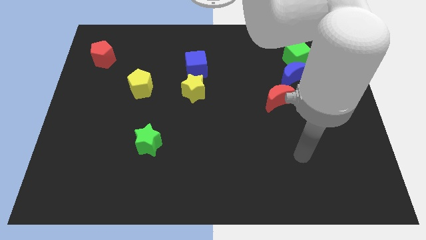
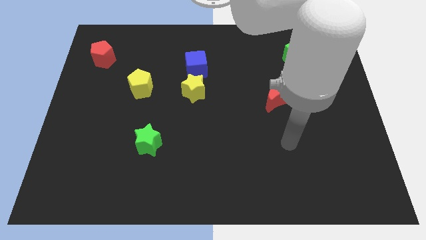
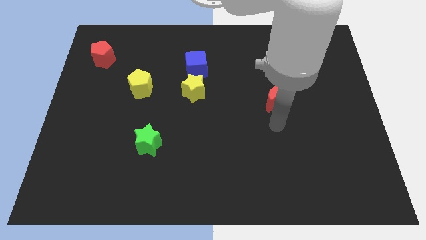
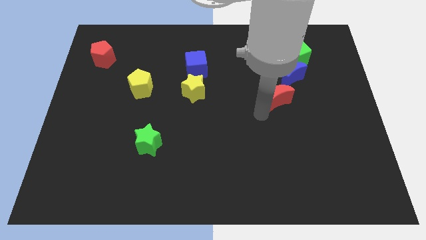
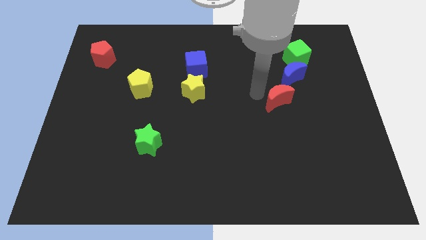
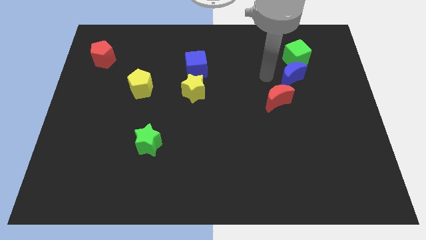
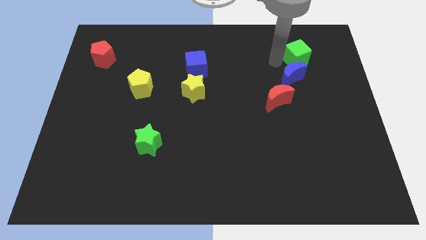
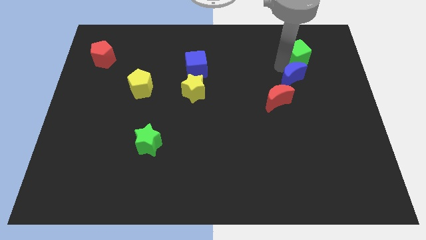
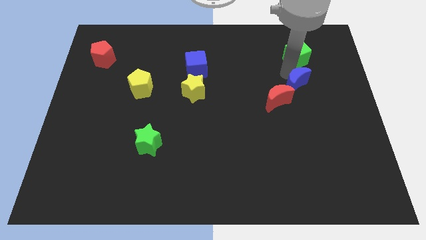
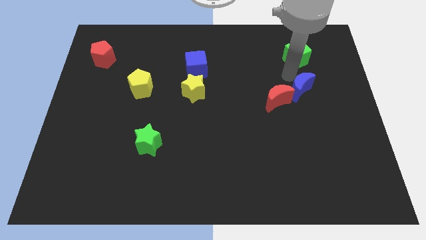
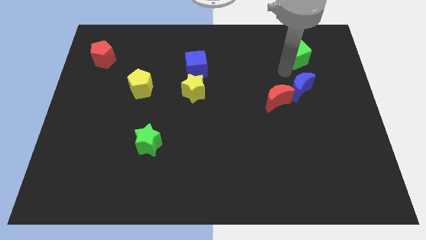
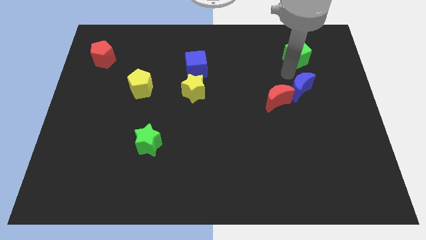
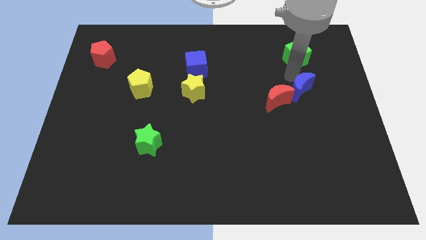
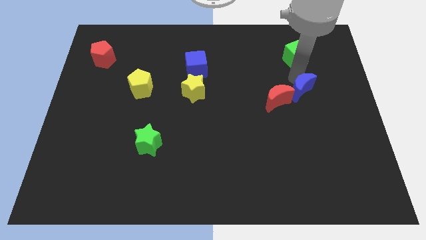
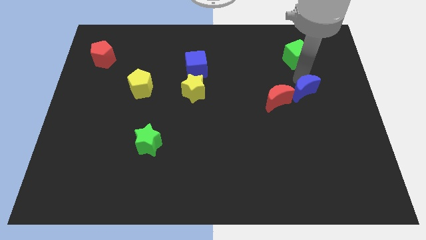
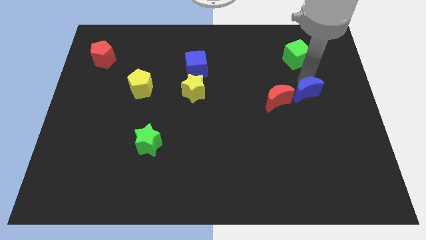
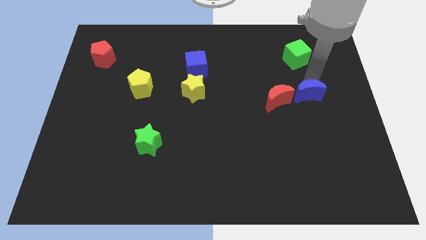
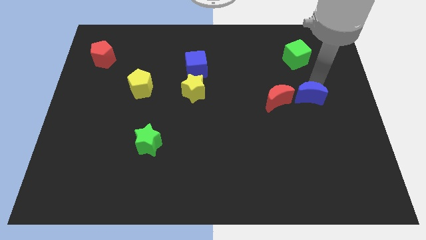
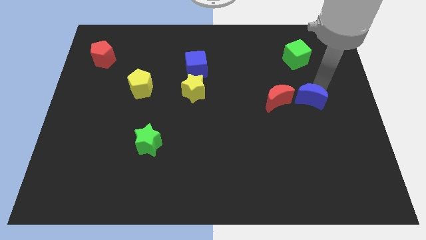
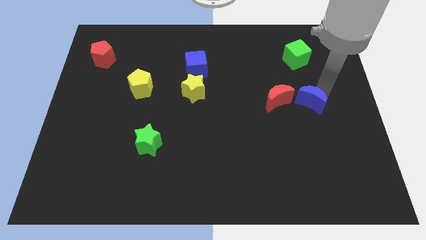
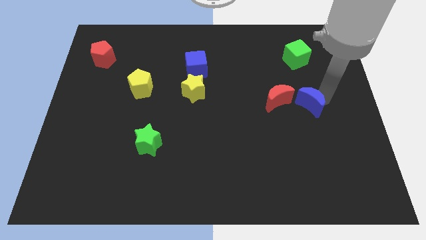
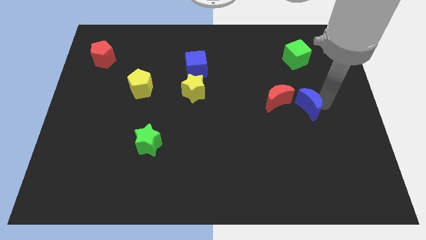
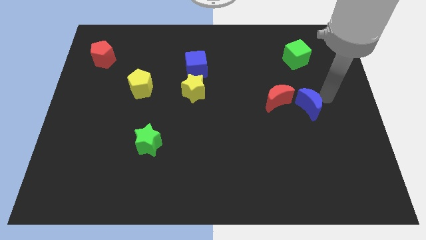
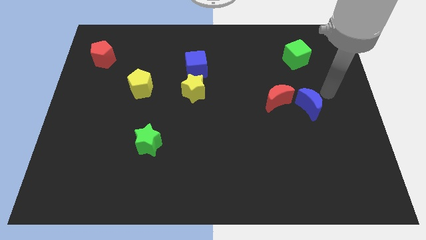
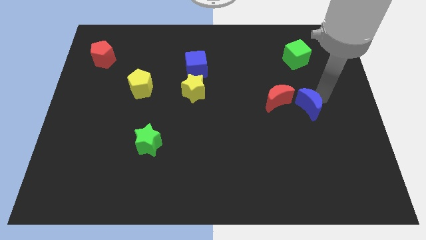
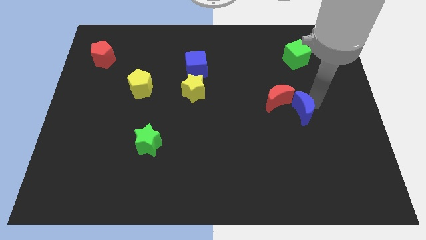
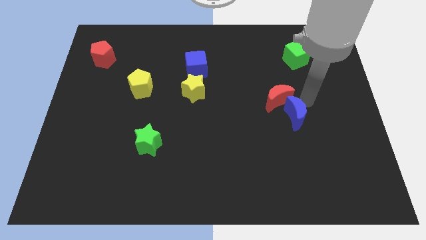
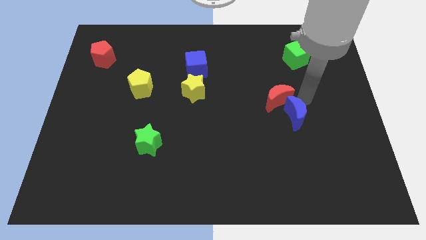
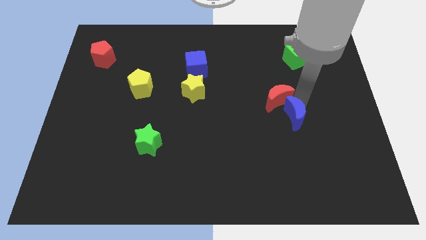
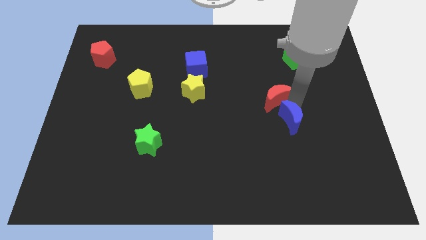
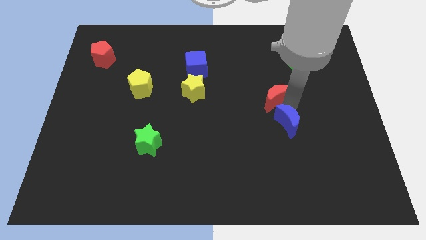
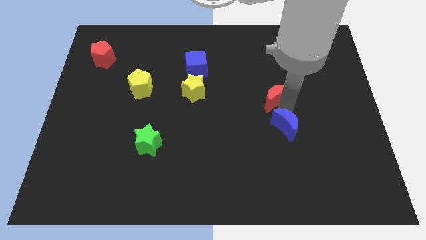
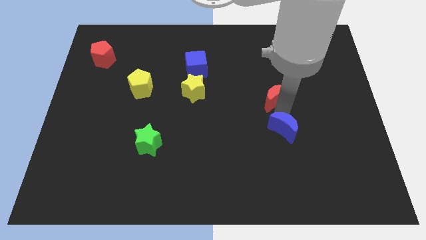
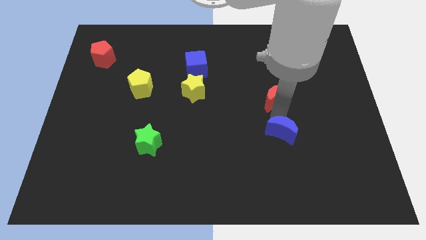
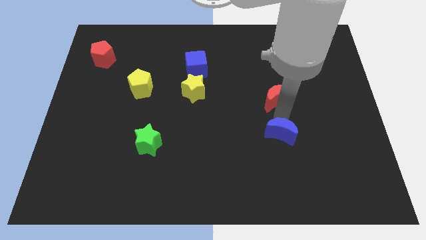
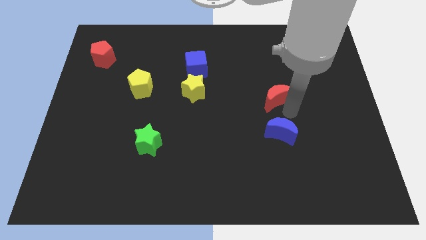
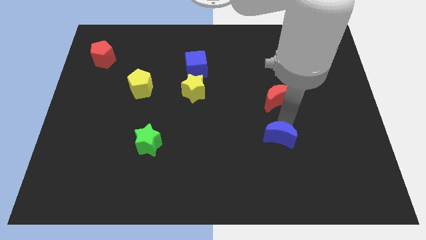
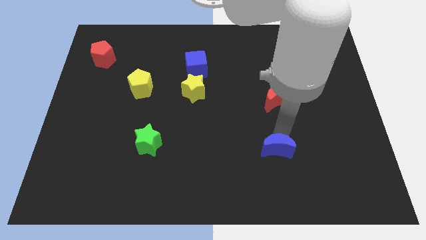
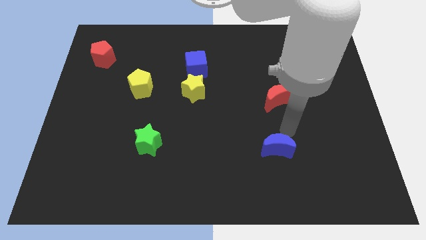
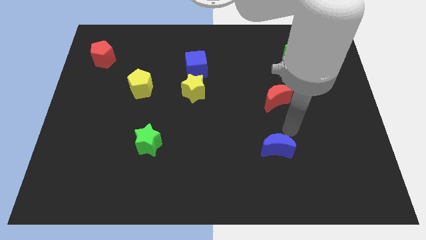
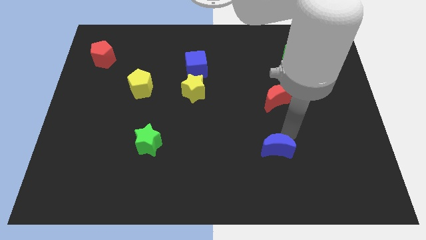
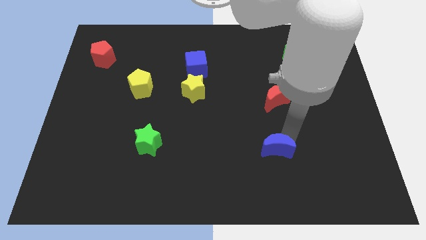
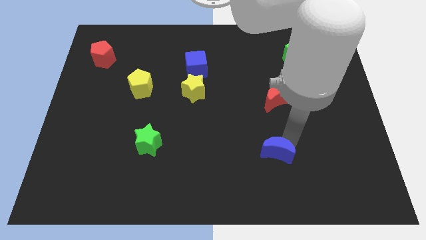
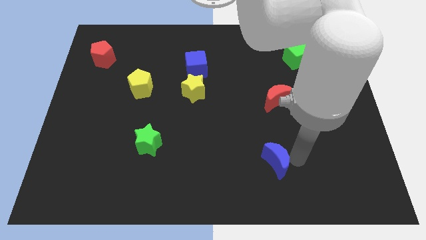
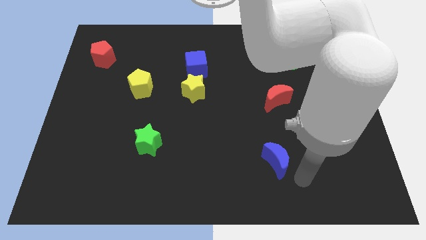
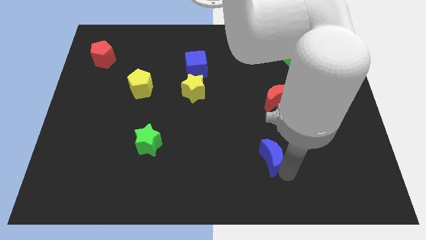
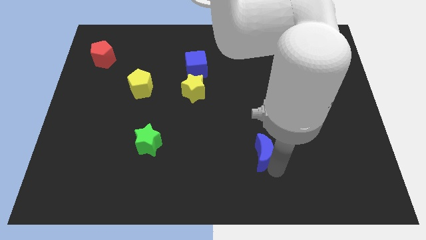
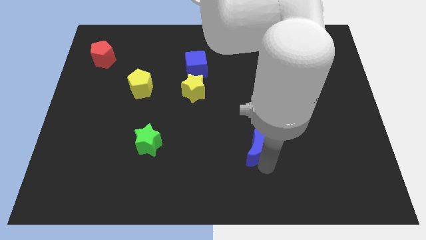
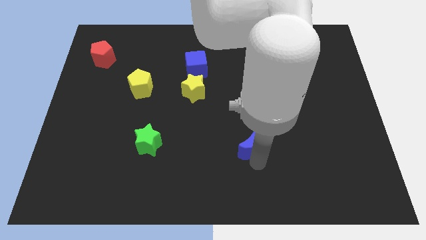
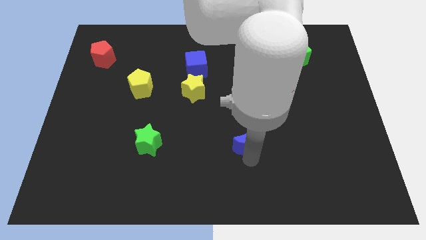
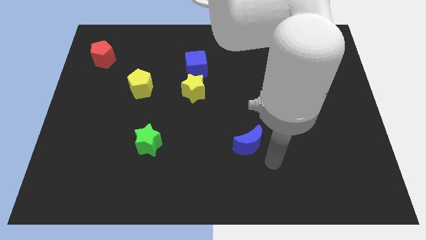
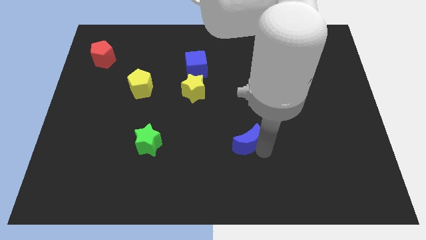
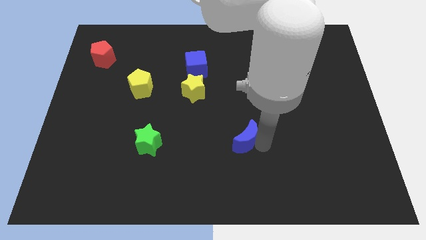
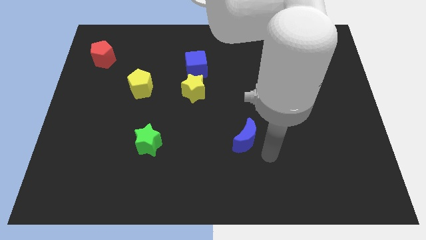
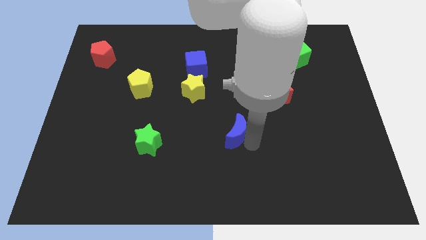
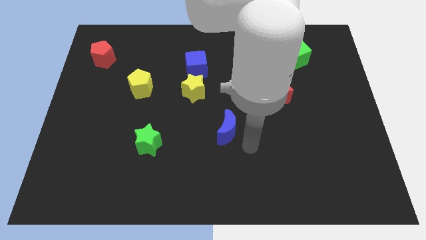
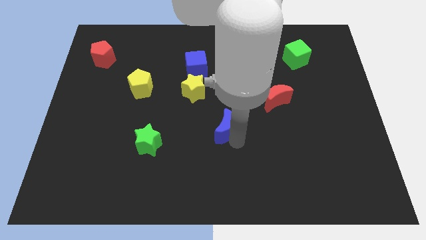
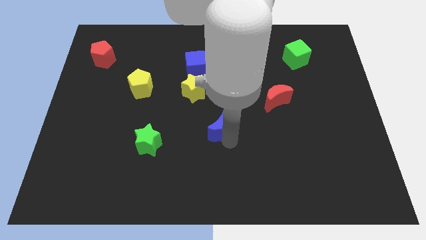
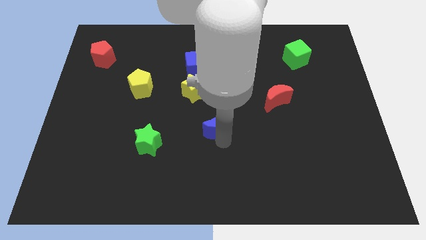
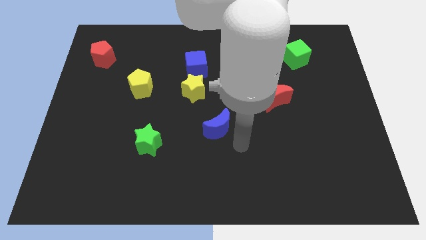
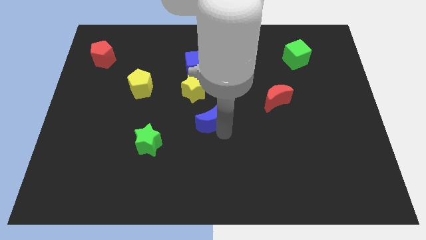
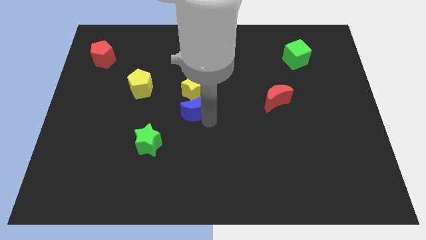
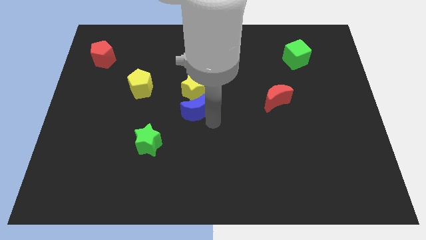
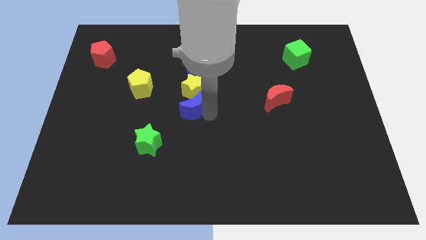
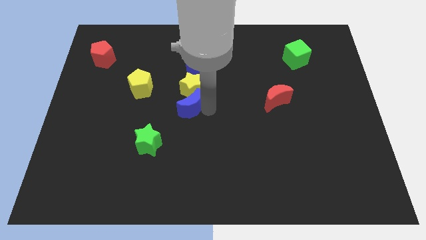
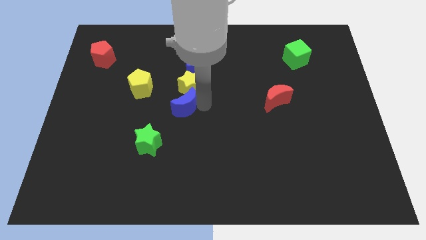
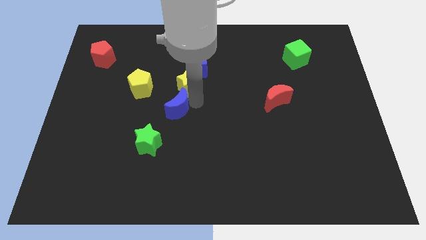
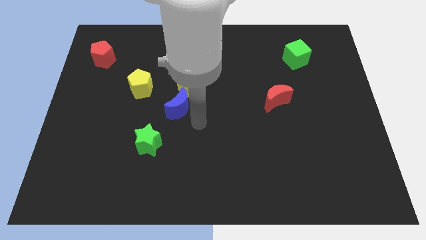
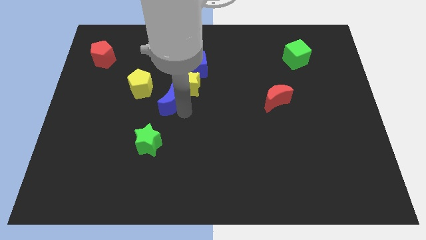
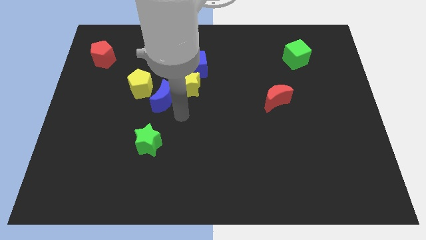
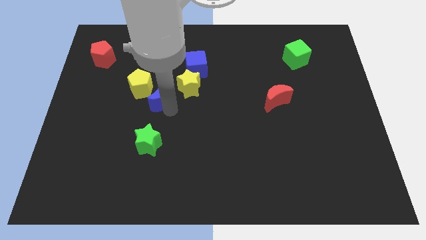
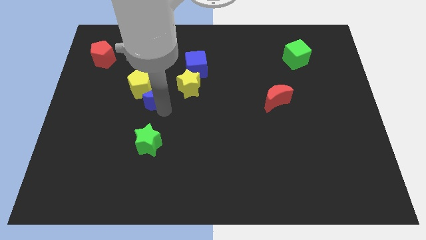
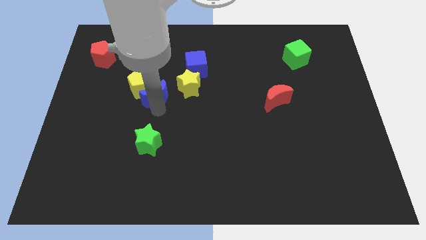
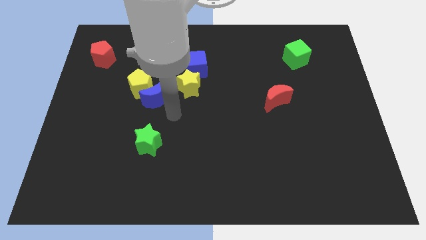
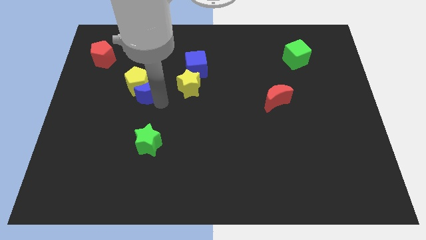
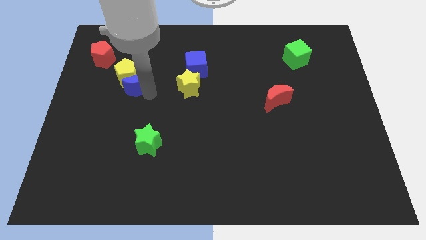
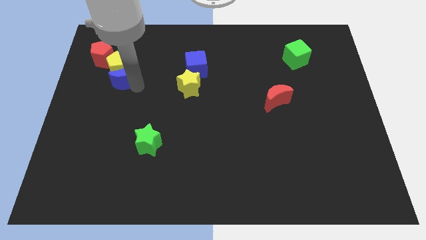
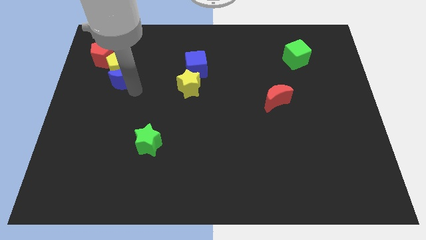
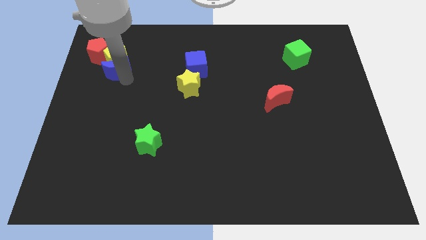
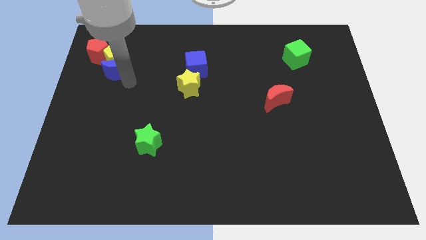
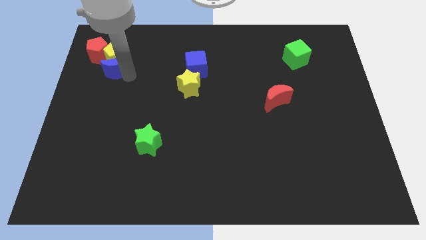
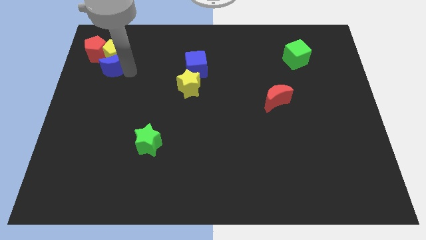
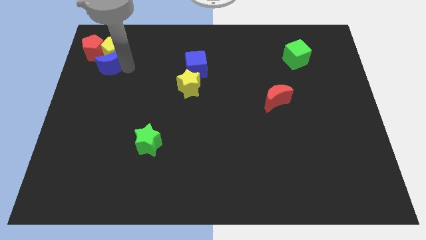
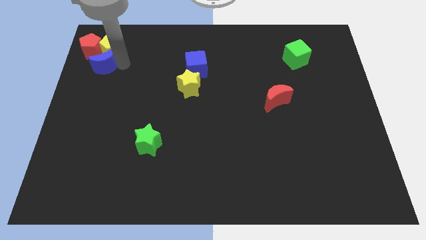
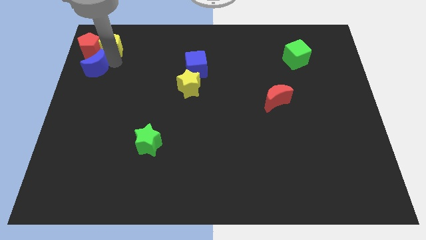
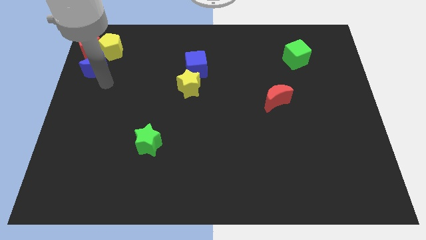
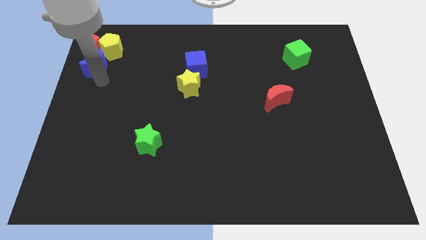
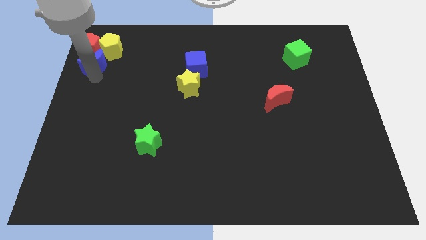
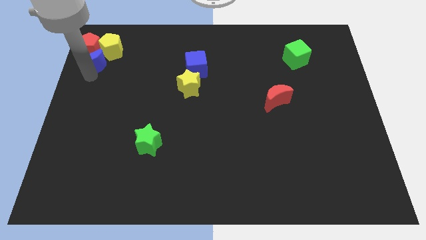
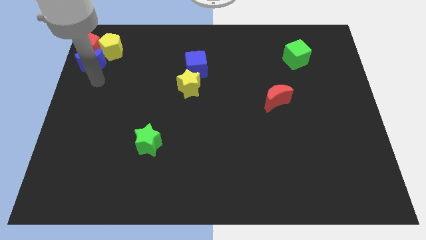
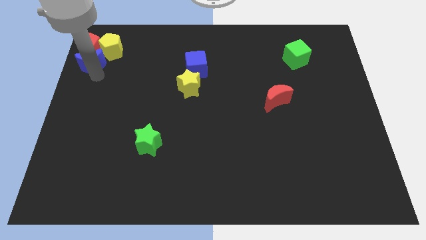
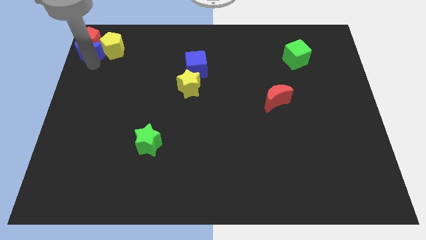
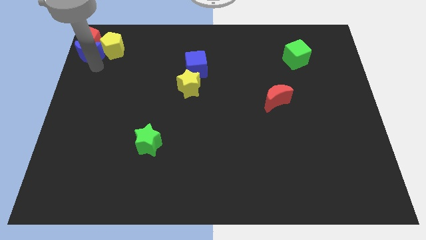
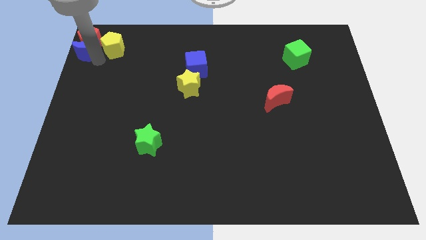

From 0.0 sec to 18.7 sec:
slide the blue moon to the upper left corner
